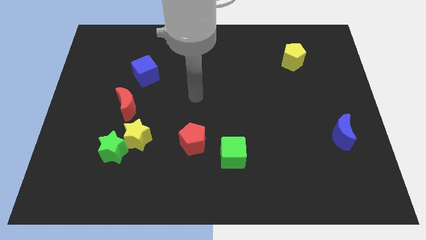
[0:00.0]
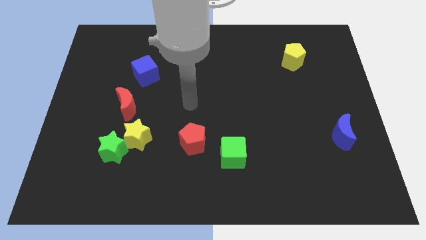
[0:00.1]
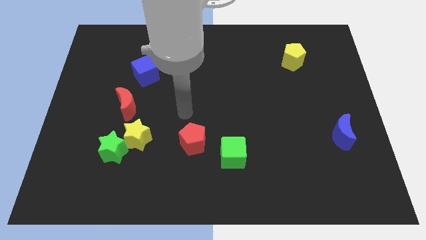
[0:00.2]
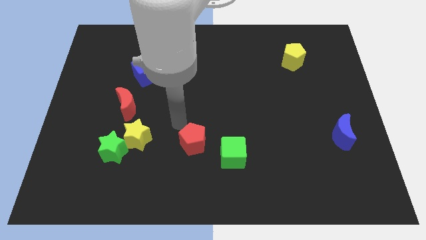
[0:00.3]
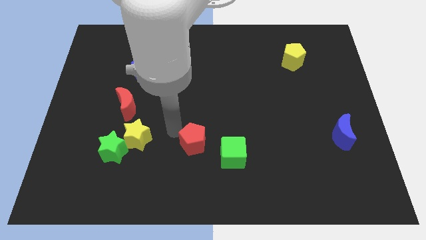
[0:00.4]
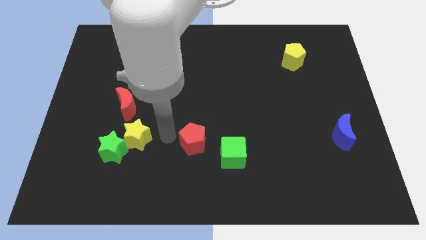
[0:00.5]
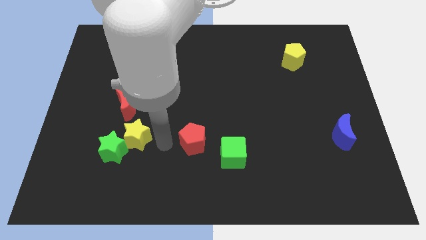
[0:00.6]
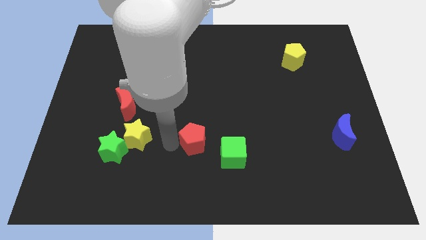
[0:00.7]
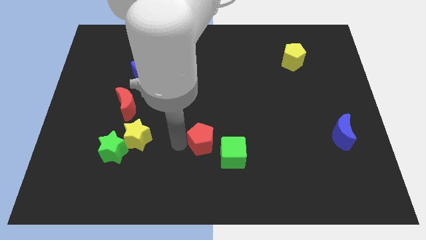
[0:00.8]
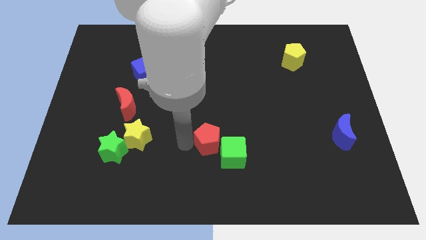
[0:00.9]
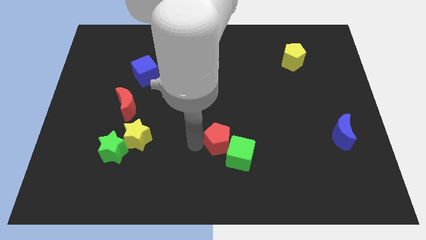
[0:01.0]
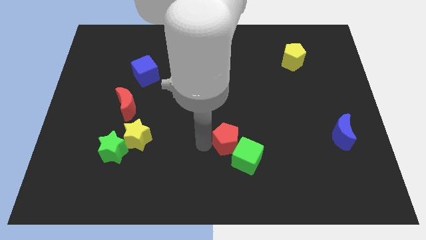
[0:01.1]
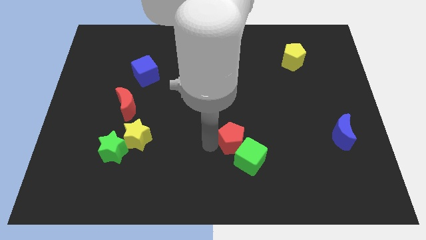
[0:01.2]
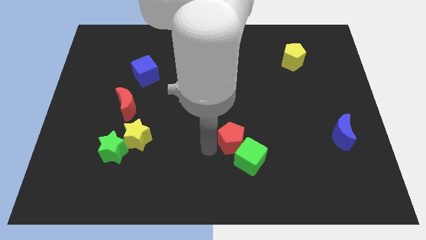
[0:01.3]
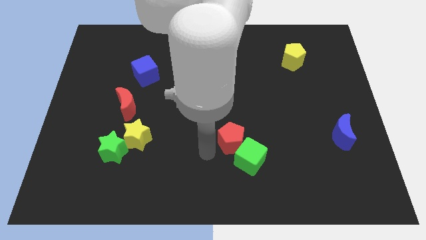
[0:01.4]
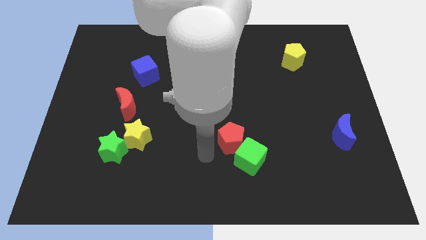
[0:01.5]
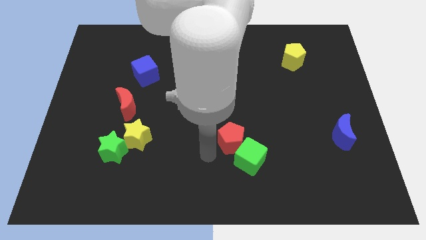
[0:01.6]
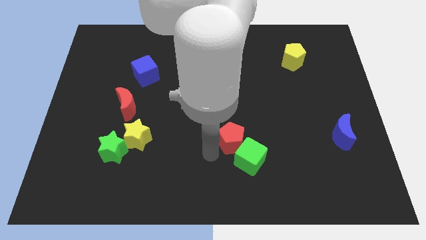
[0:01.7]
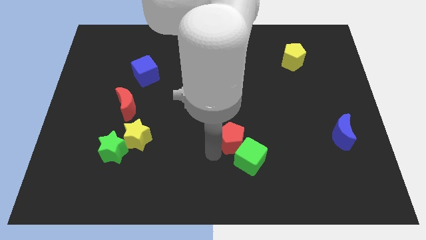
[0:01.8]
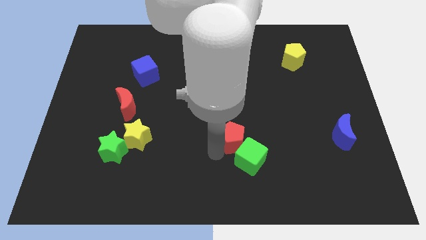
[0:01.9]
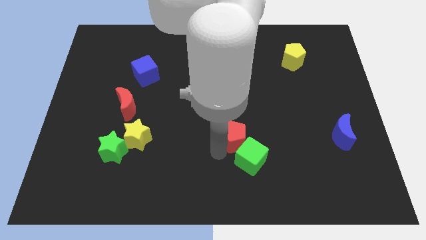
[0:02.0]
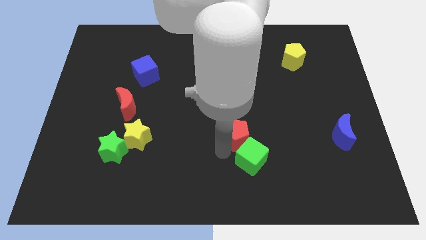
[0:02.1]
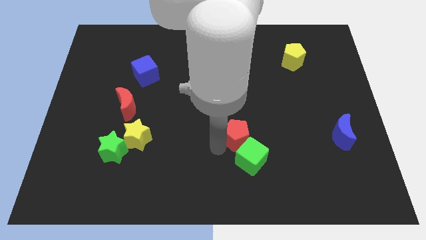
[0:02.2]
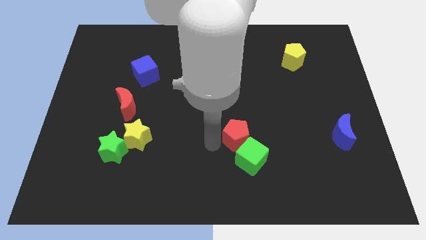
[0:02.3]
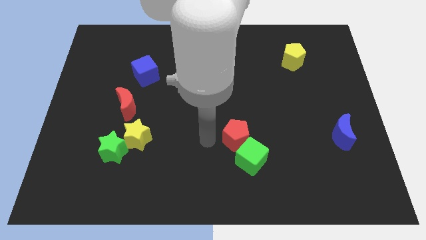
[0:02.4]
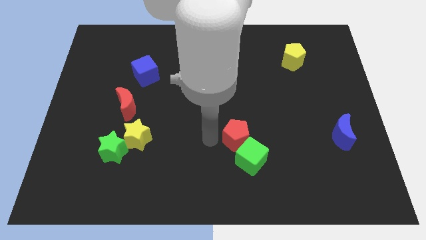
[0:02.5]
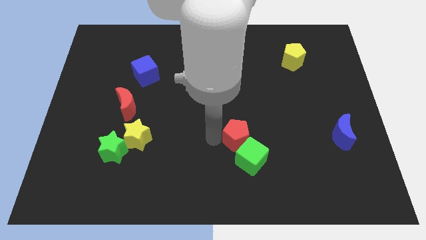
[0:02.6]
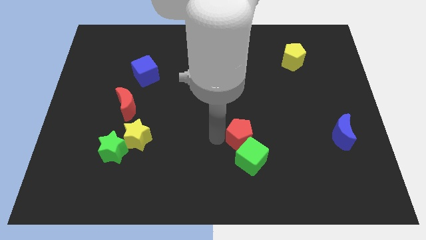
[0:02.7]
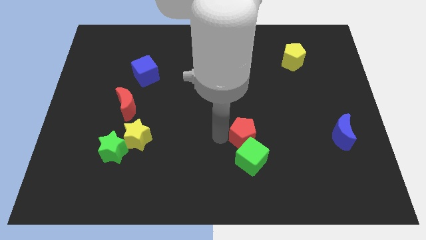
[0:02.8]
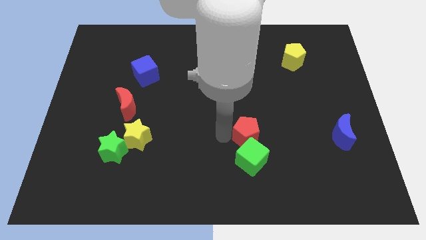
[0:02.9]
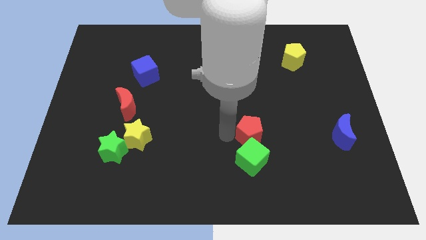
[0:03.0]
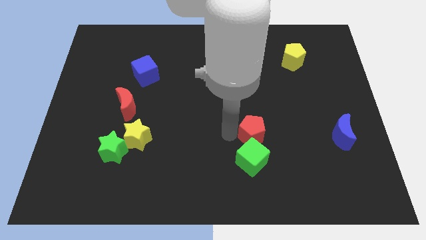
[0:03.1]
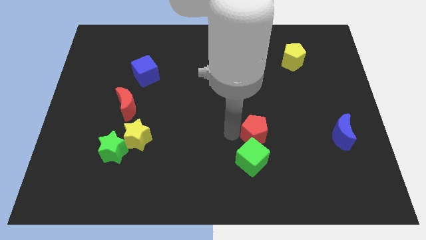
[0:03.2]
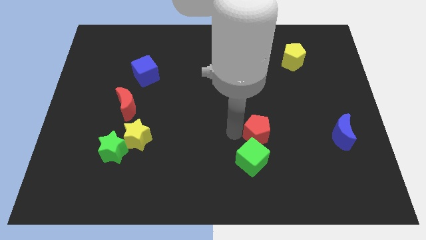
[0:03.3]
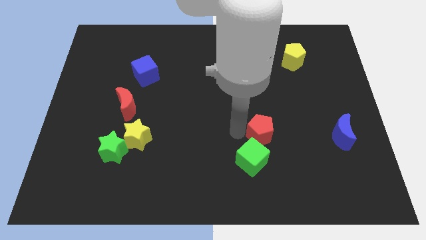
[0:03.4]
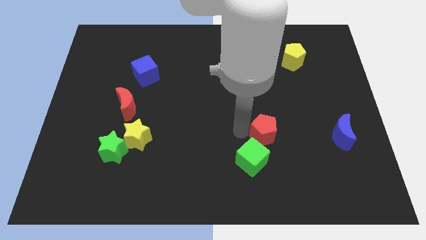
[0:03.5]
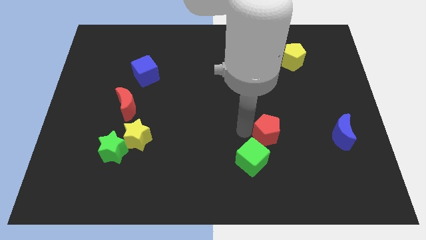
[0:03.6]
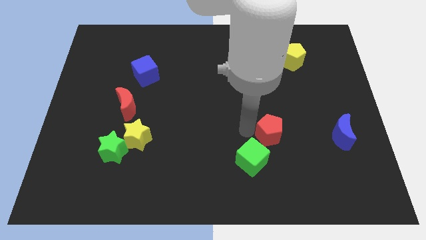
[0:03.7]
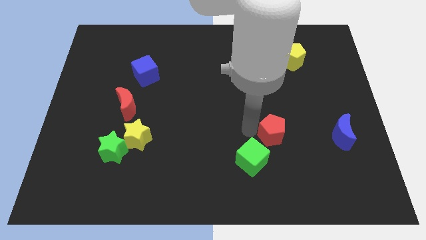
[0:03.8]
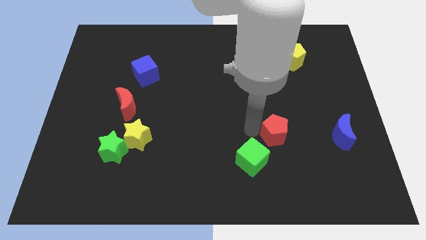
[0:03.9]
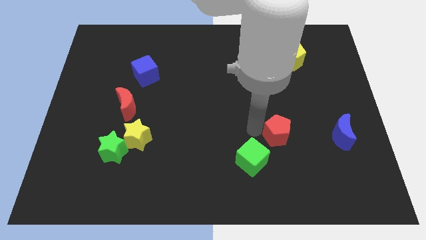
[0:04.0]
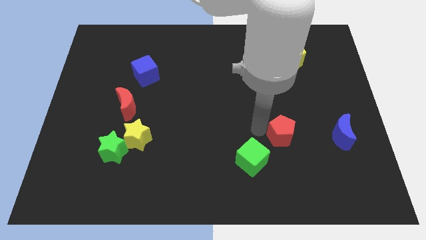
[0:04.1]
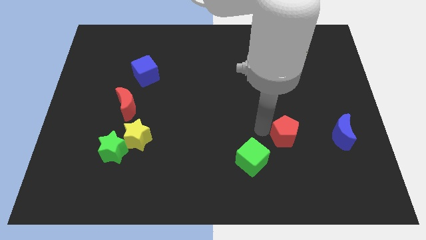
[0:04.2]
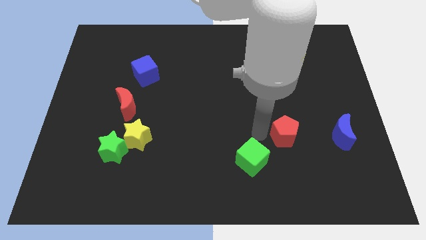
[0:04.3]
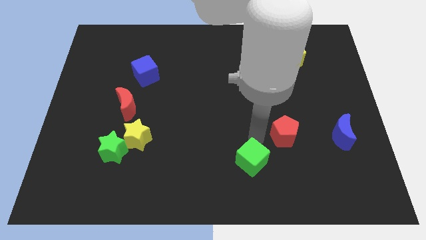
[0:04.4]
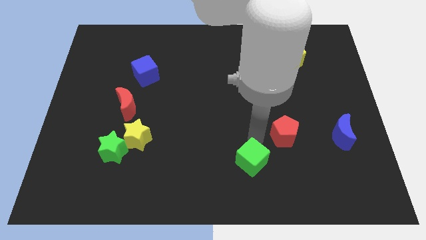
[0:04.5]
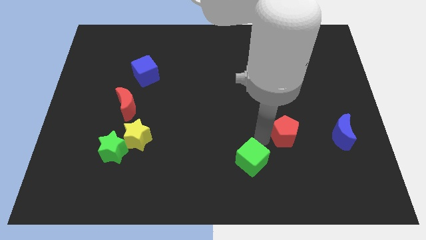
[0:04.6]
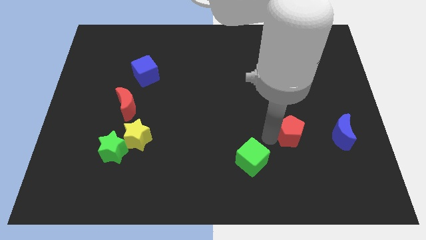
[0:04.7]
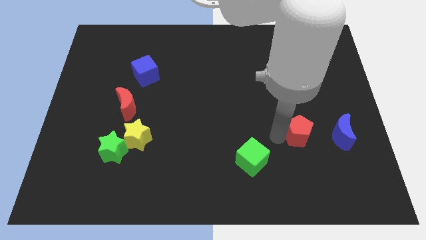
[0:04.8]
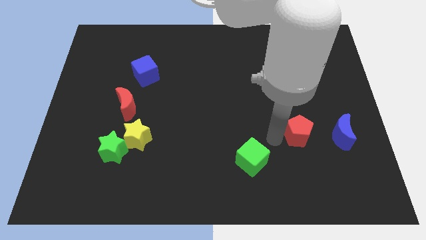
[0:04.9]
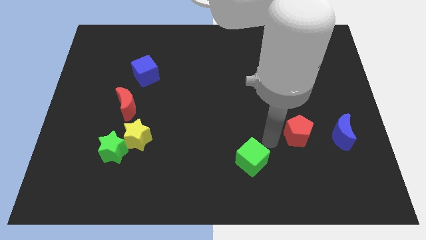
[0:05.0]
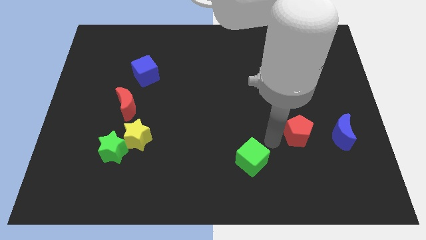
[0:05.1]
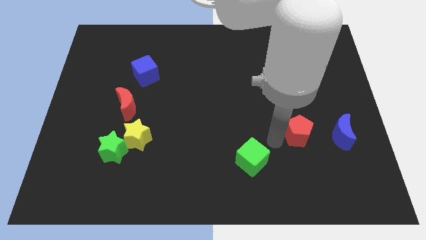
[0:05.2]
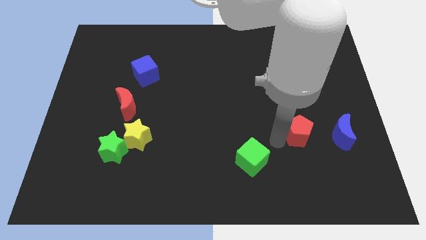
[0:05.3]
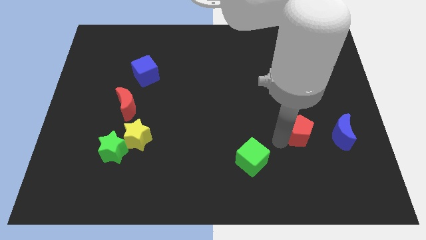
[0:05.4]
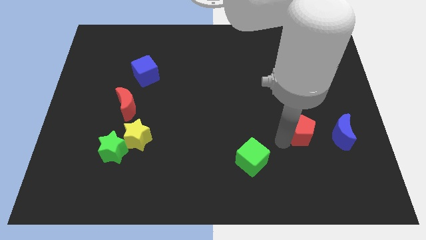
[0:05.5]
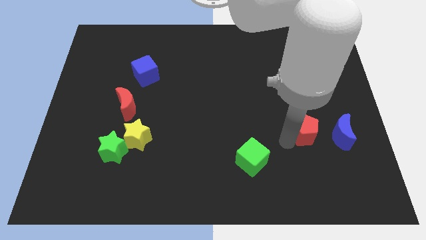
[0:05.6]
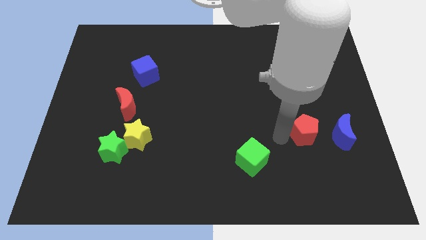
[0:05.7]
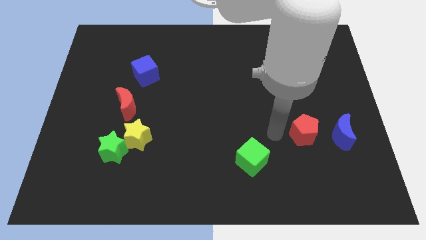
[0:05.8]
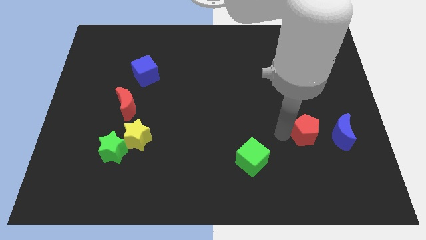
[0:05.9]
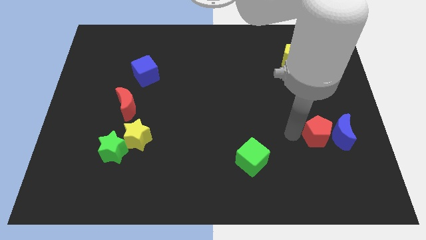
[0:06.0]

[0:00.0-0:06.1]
slide the red pentagon towards the blue moon

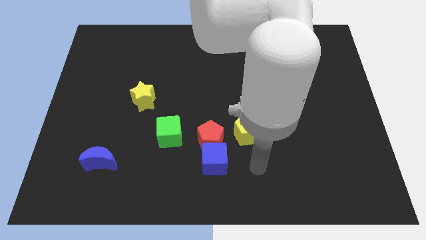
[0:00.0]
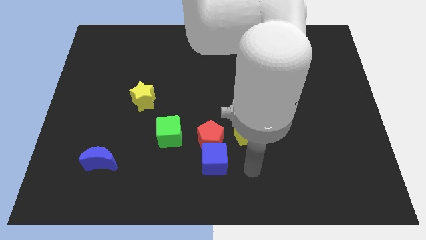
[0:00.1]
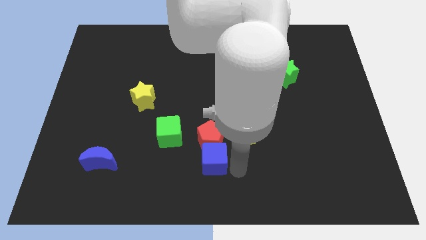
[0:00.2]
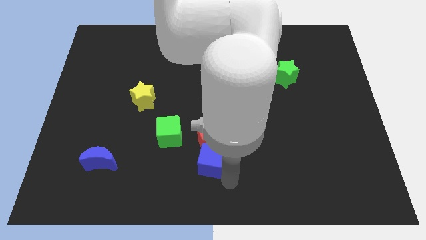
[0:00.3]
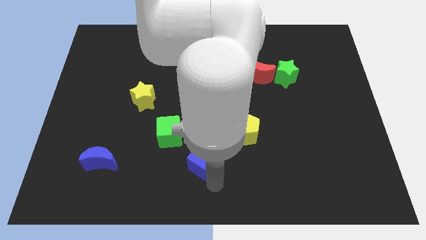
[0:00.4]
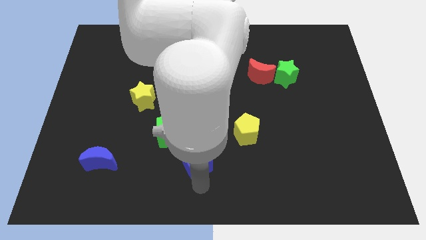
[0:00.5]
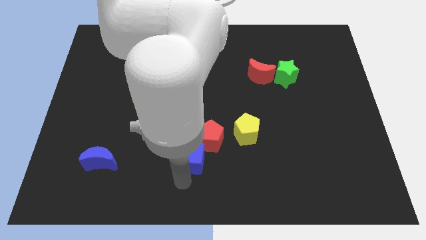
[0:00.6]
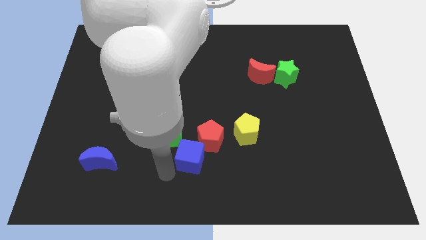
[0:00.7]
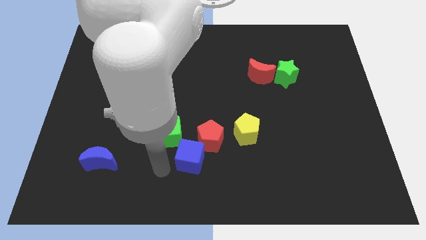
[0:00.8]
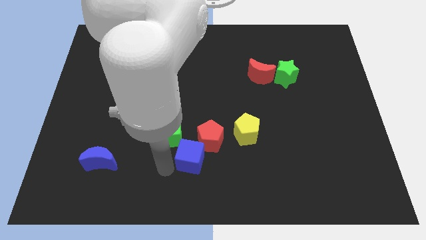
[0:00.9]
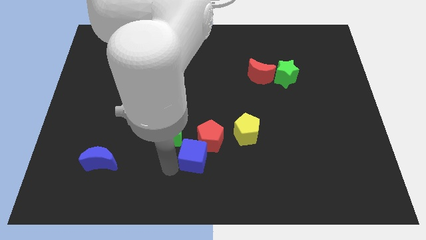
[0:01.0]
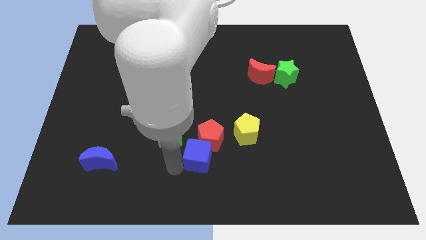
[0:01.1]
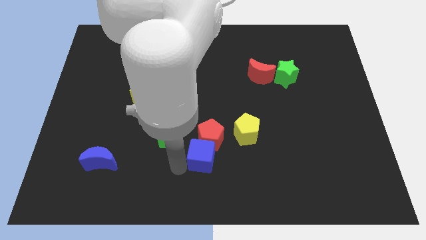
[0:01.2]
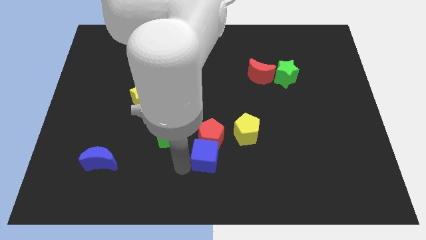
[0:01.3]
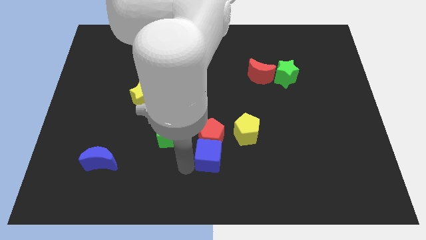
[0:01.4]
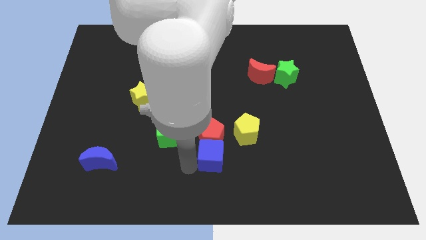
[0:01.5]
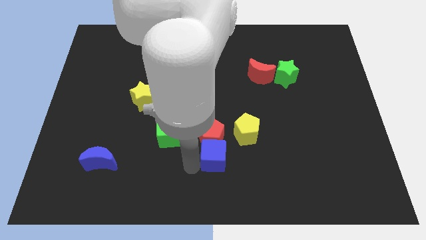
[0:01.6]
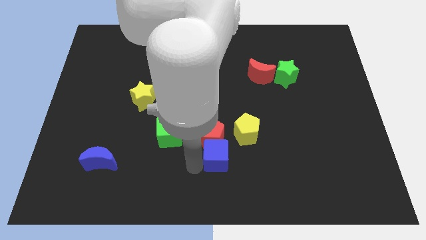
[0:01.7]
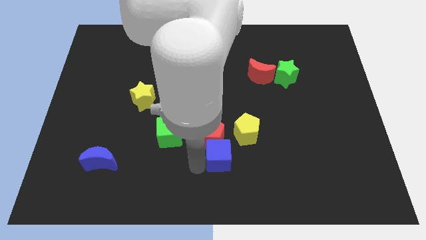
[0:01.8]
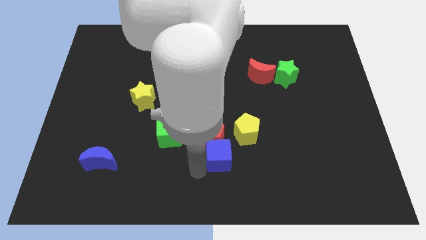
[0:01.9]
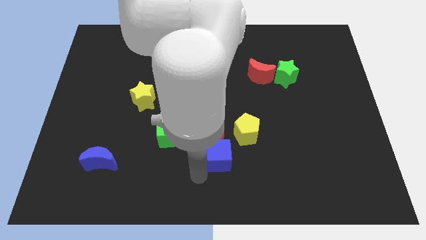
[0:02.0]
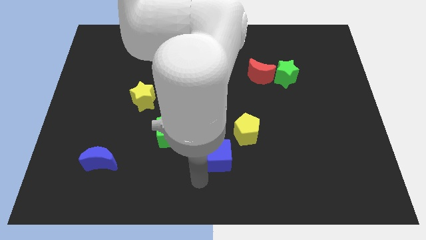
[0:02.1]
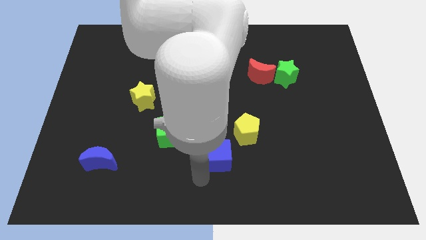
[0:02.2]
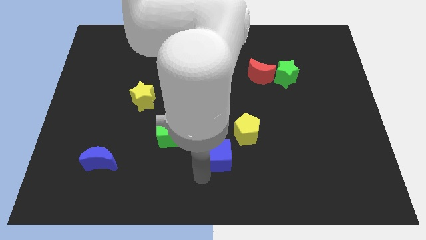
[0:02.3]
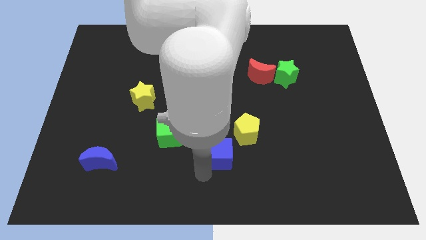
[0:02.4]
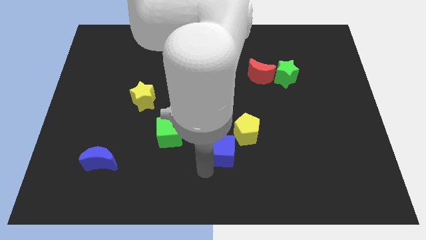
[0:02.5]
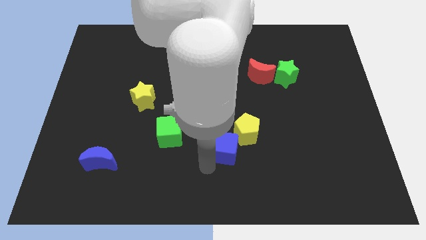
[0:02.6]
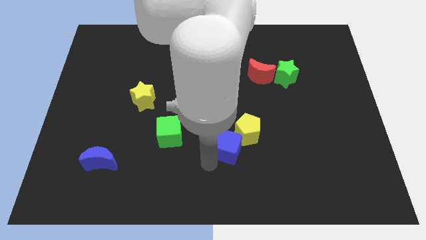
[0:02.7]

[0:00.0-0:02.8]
put the blue cube to the yellow pentagon
